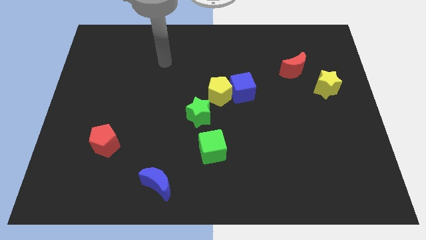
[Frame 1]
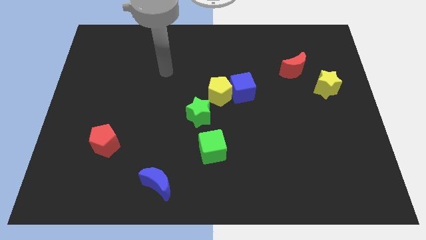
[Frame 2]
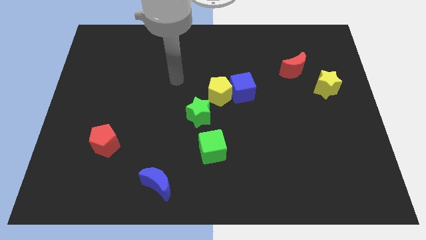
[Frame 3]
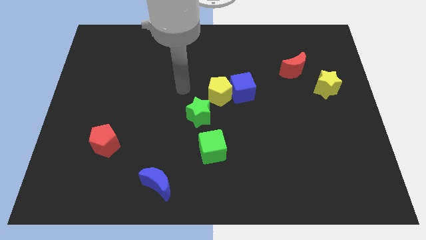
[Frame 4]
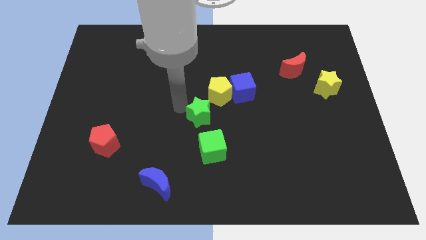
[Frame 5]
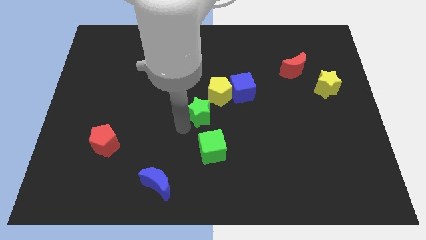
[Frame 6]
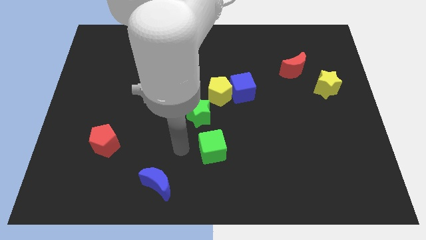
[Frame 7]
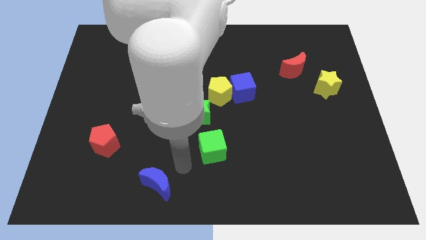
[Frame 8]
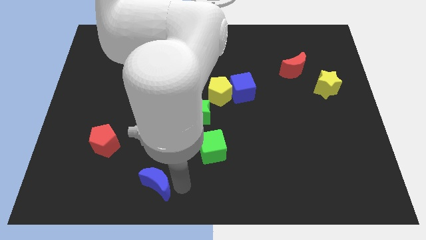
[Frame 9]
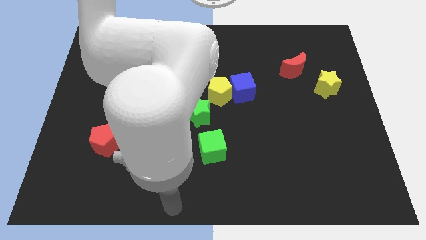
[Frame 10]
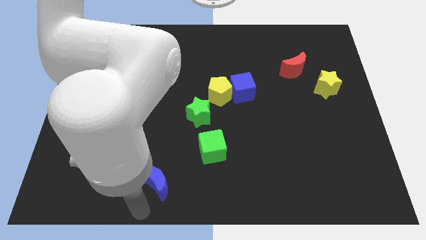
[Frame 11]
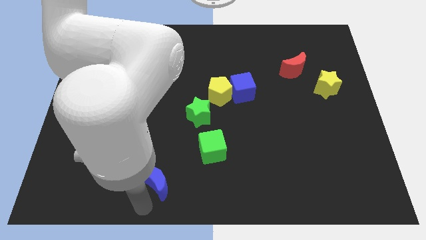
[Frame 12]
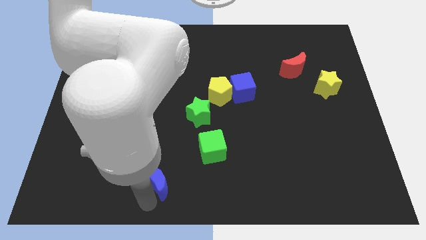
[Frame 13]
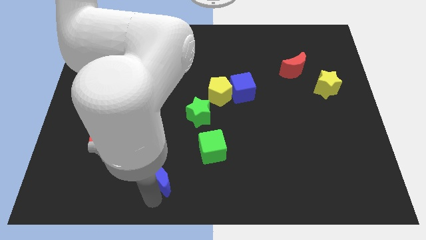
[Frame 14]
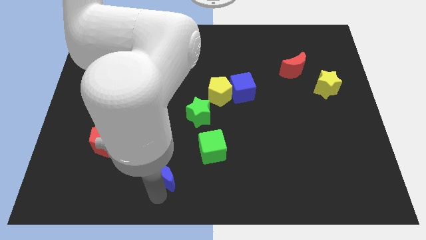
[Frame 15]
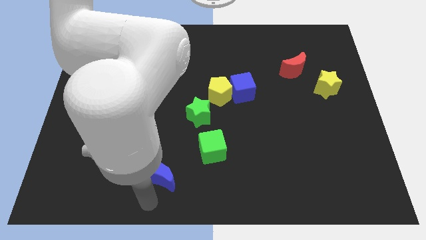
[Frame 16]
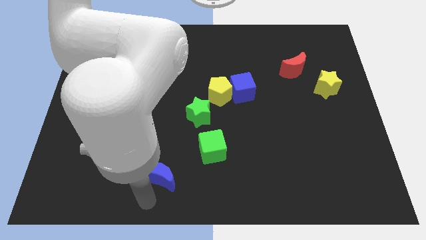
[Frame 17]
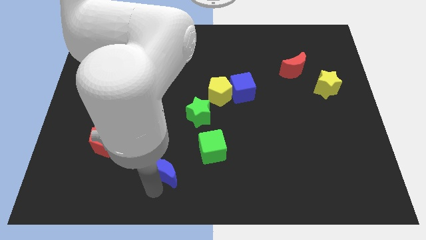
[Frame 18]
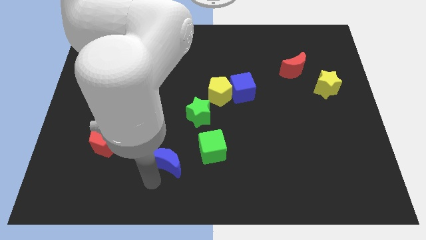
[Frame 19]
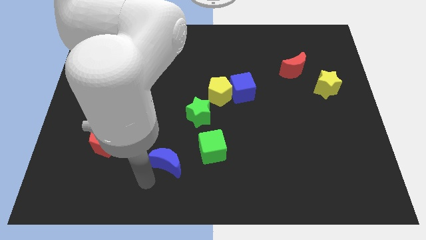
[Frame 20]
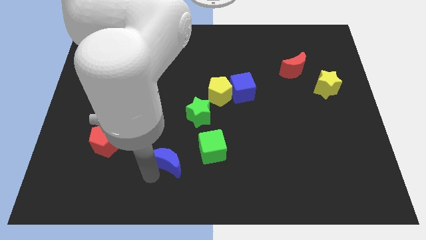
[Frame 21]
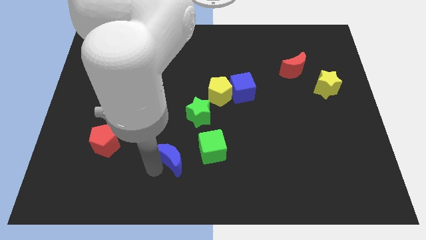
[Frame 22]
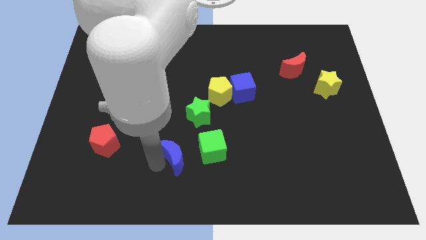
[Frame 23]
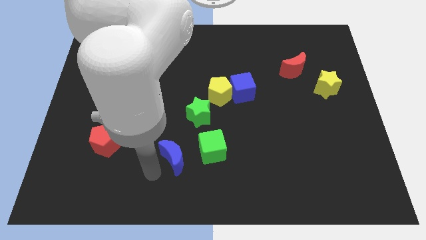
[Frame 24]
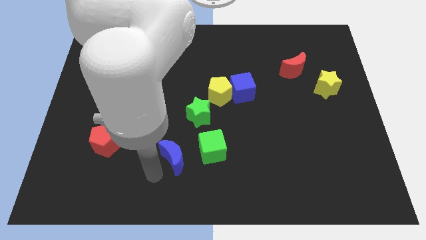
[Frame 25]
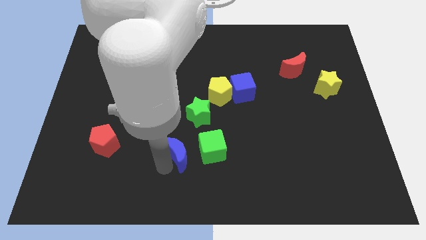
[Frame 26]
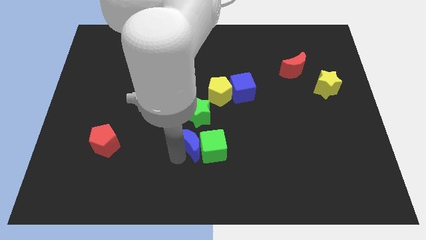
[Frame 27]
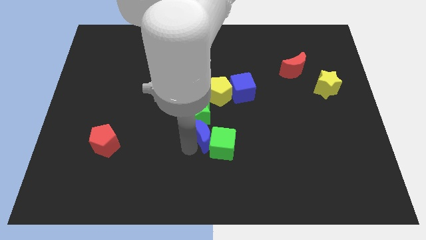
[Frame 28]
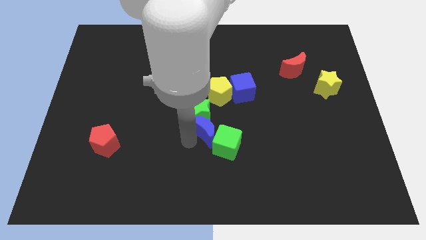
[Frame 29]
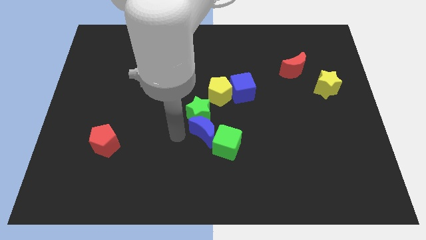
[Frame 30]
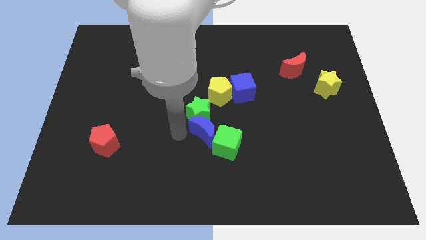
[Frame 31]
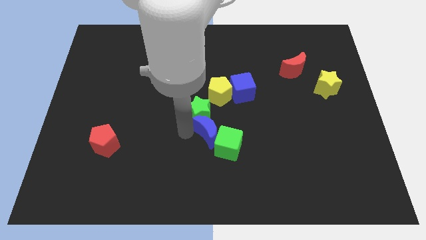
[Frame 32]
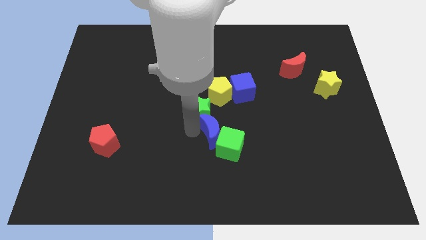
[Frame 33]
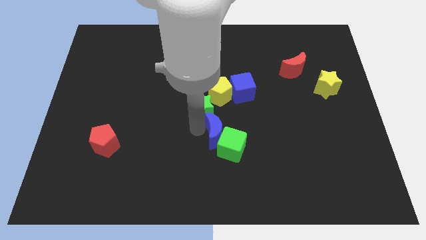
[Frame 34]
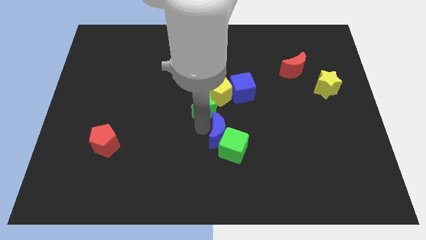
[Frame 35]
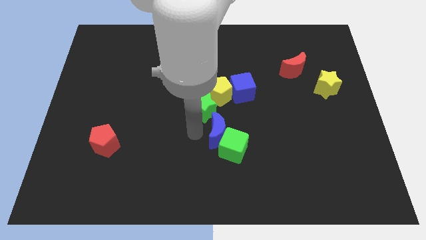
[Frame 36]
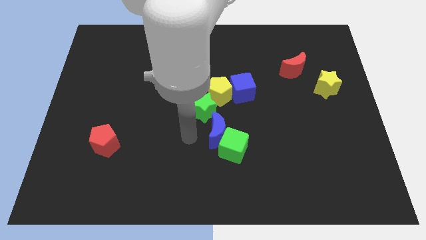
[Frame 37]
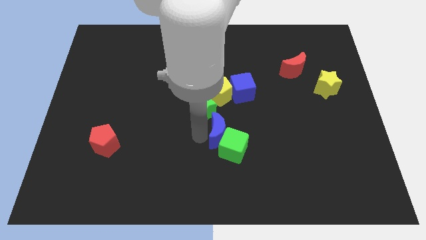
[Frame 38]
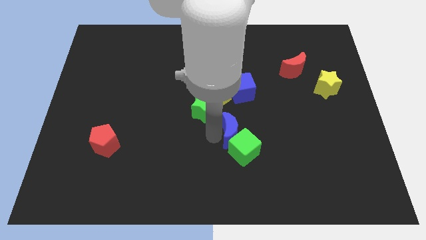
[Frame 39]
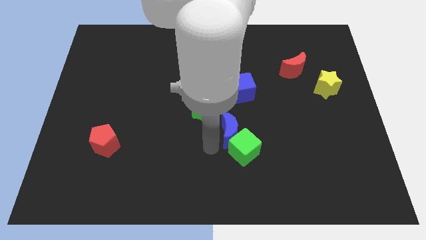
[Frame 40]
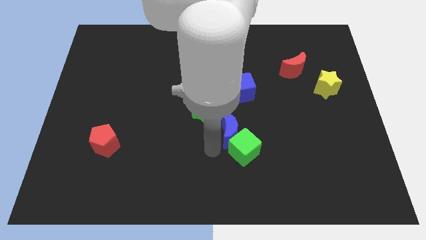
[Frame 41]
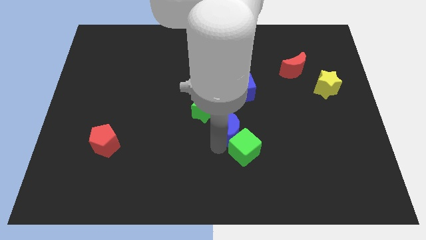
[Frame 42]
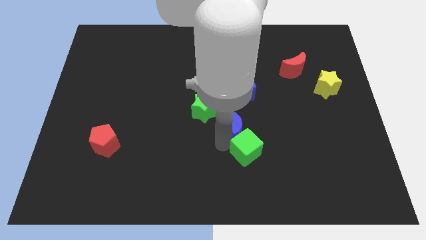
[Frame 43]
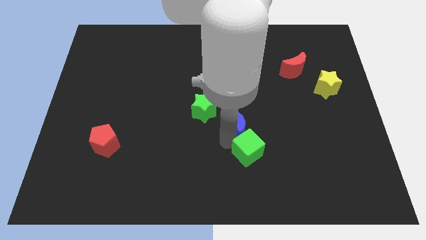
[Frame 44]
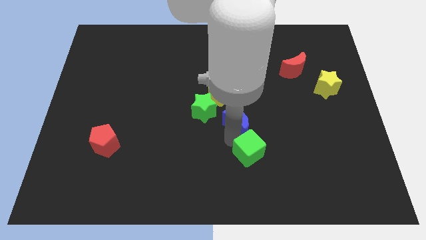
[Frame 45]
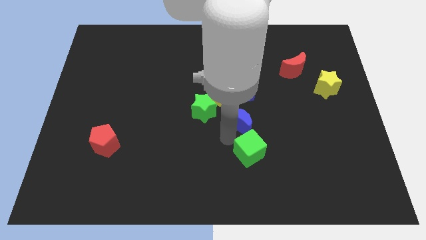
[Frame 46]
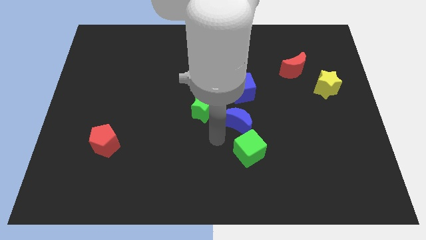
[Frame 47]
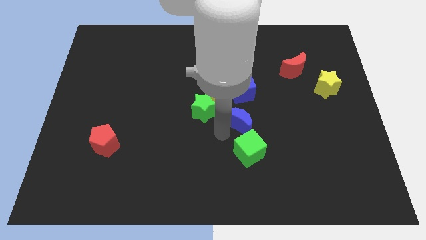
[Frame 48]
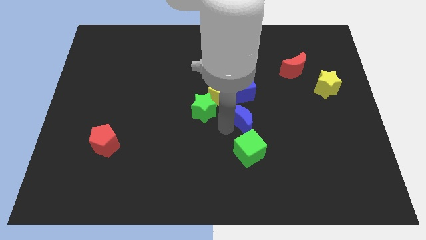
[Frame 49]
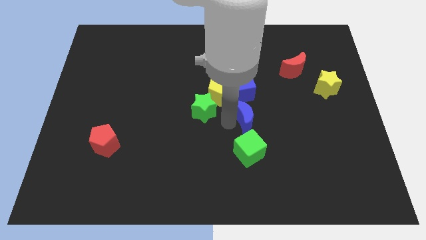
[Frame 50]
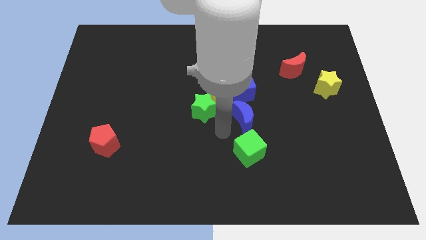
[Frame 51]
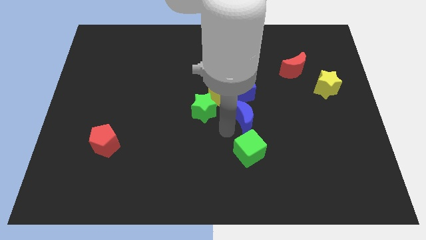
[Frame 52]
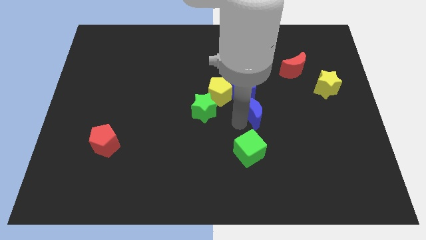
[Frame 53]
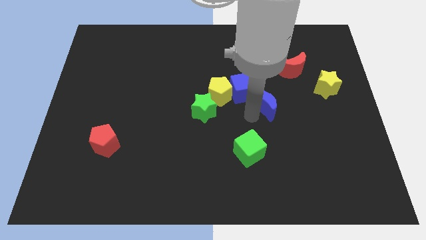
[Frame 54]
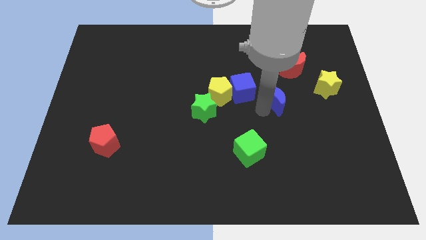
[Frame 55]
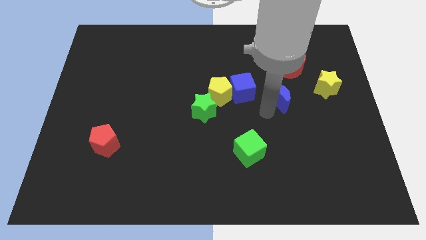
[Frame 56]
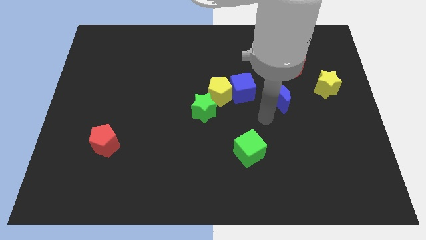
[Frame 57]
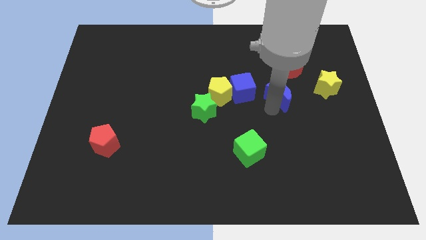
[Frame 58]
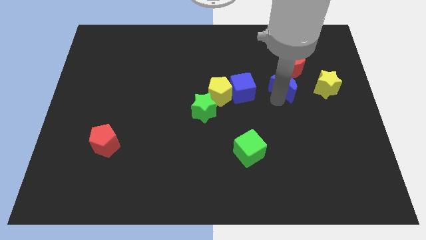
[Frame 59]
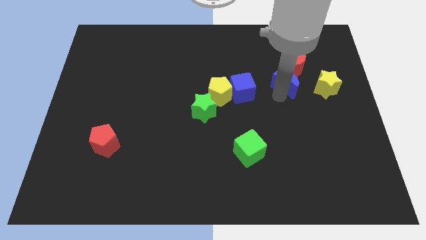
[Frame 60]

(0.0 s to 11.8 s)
push the blue moon to the red moon
